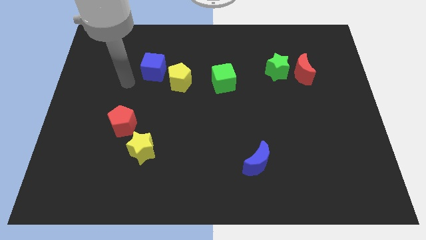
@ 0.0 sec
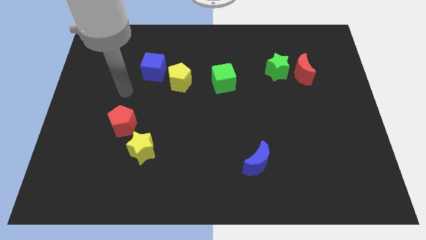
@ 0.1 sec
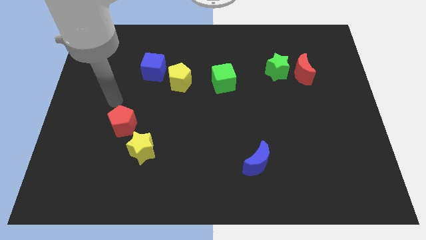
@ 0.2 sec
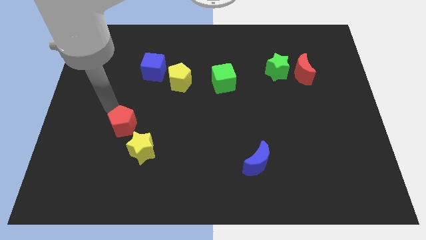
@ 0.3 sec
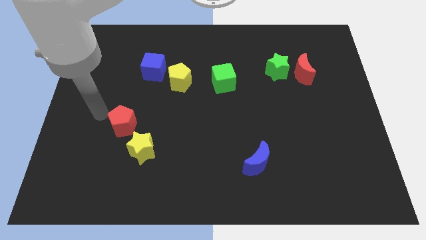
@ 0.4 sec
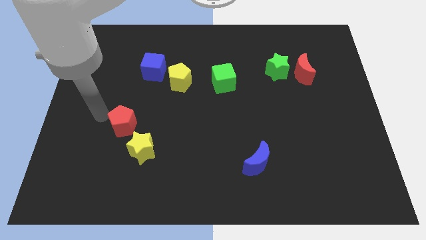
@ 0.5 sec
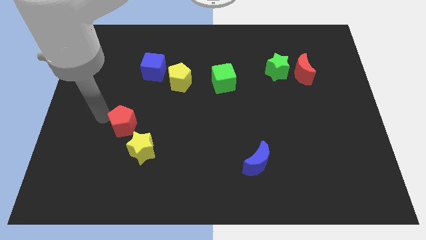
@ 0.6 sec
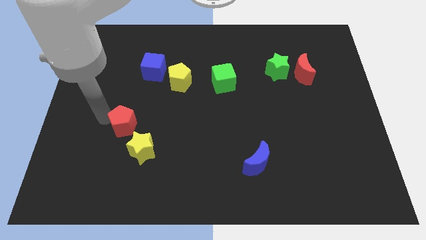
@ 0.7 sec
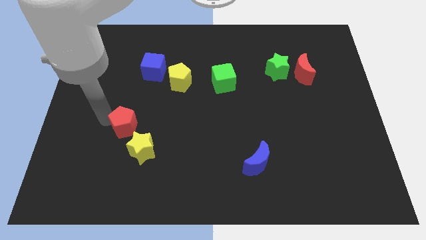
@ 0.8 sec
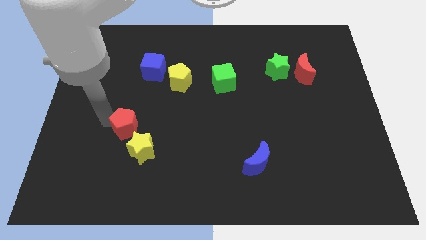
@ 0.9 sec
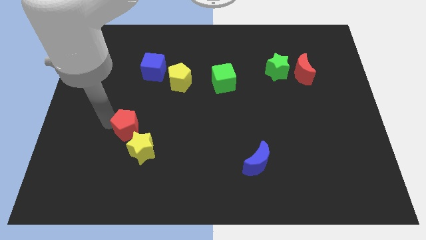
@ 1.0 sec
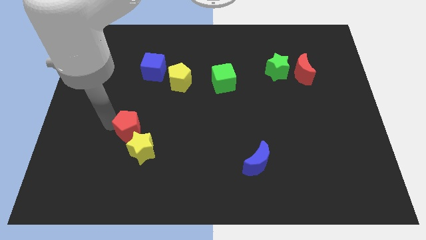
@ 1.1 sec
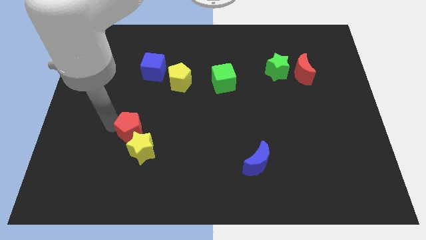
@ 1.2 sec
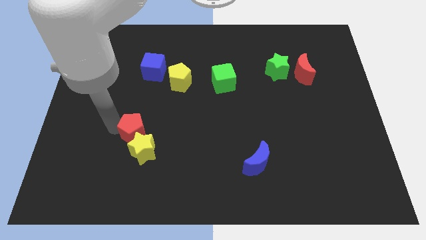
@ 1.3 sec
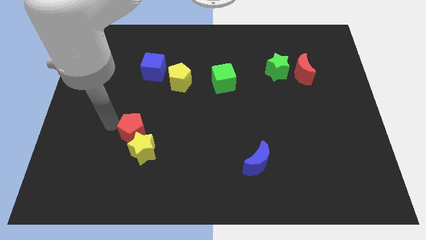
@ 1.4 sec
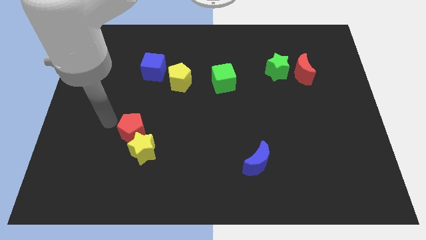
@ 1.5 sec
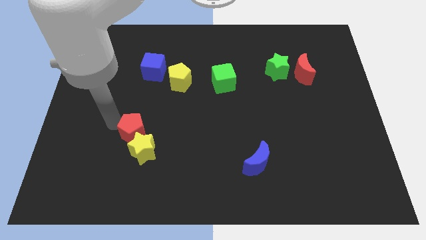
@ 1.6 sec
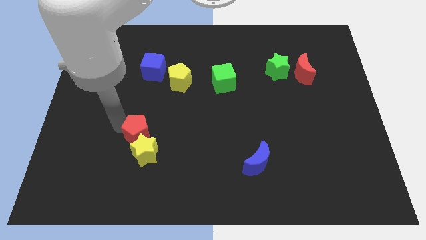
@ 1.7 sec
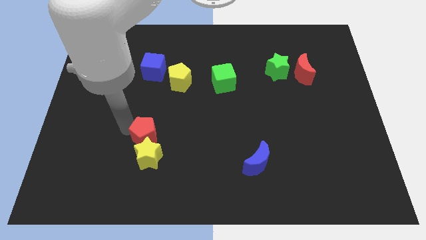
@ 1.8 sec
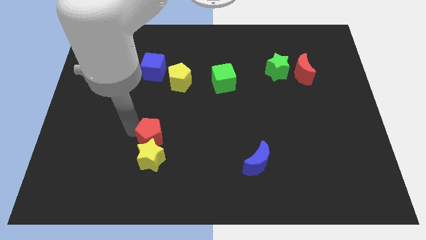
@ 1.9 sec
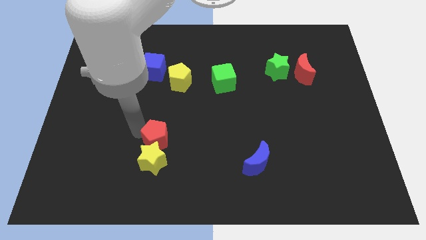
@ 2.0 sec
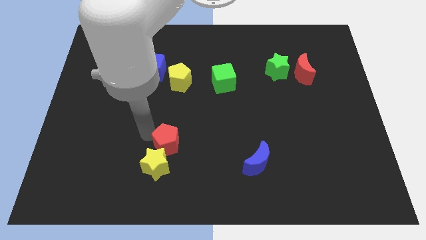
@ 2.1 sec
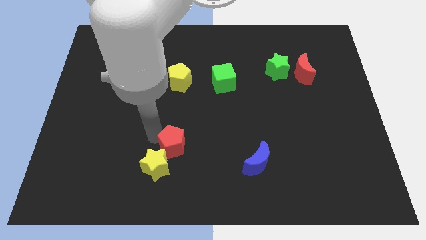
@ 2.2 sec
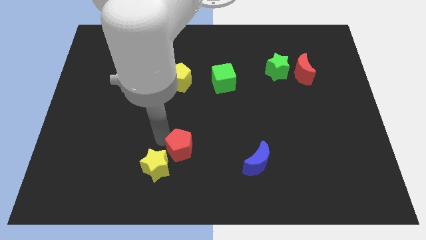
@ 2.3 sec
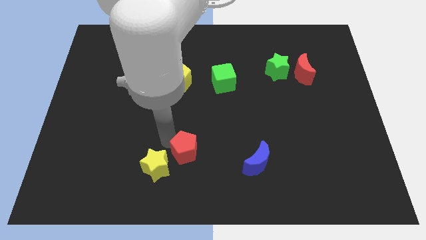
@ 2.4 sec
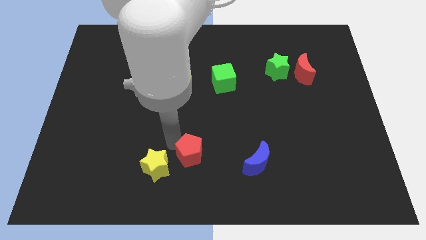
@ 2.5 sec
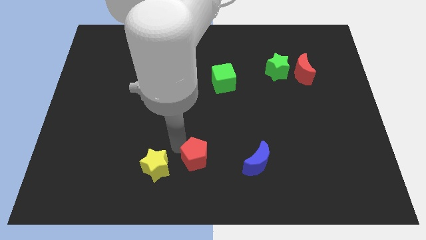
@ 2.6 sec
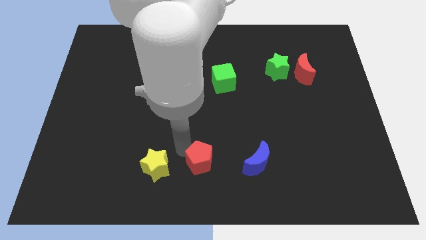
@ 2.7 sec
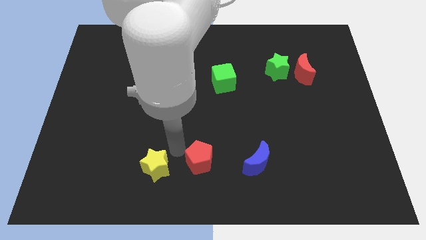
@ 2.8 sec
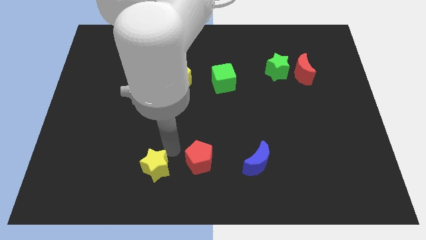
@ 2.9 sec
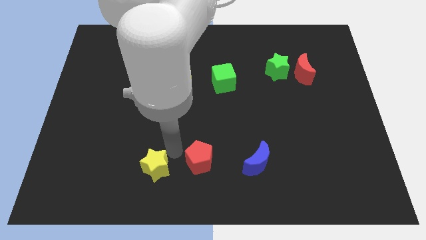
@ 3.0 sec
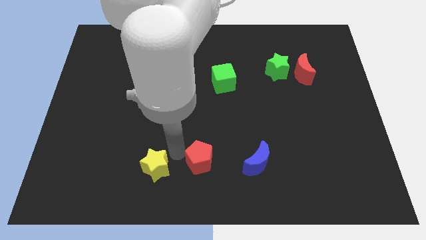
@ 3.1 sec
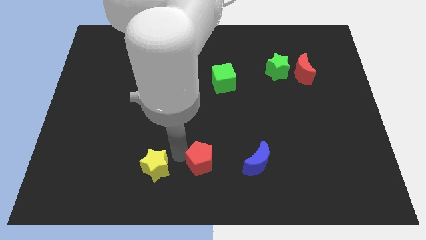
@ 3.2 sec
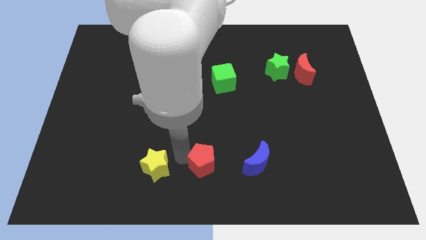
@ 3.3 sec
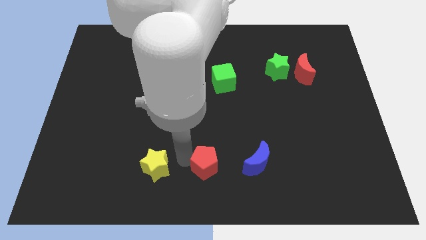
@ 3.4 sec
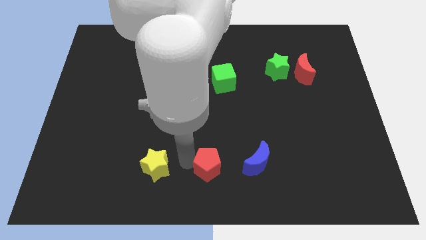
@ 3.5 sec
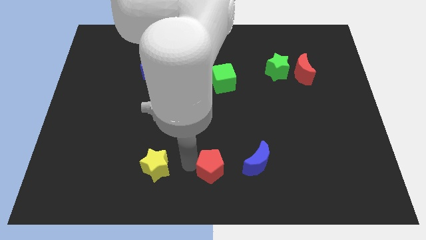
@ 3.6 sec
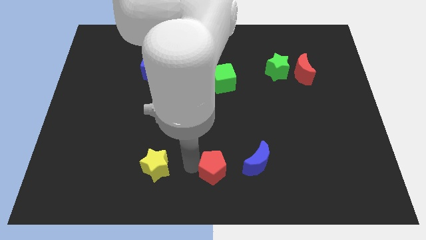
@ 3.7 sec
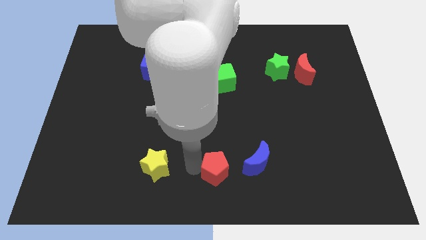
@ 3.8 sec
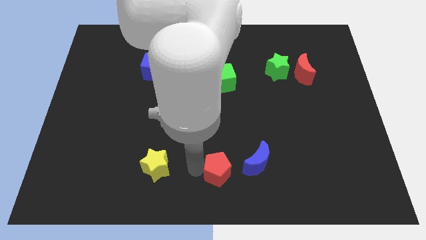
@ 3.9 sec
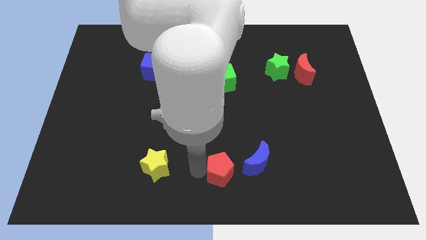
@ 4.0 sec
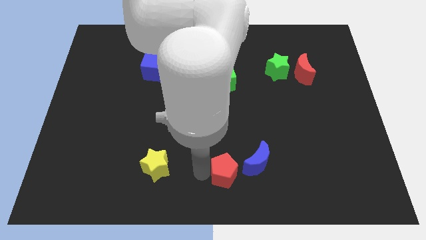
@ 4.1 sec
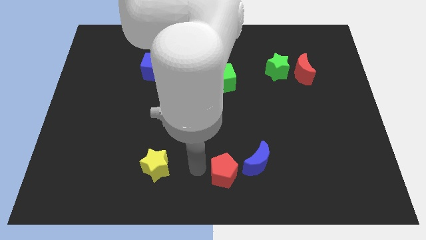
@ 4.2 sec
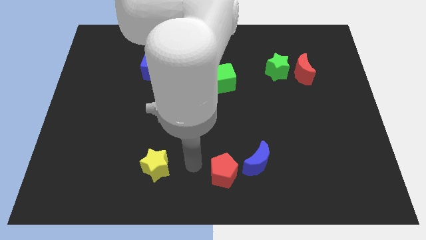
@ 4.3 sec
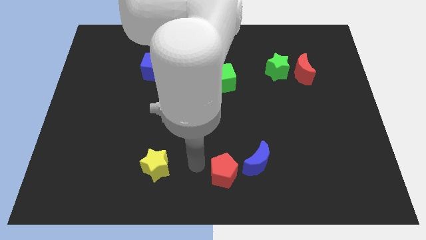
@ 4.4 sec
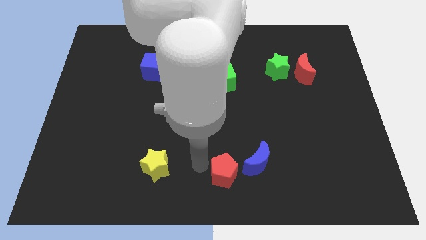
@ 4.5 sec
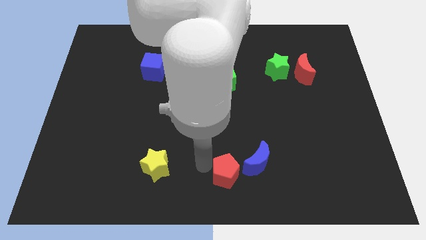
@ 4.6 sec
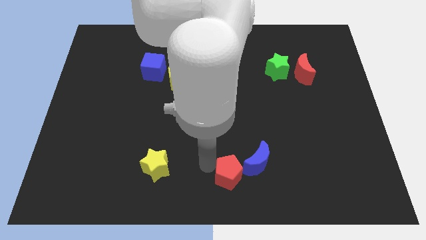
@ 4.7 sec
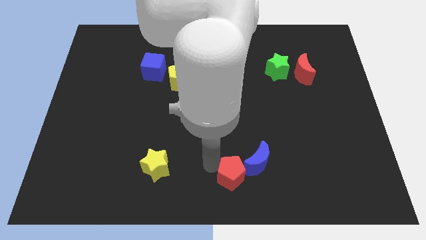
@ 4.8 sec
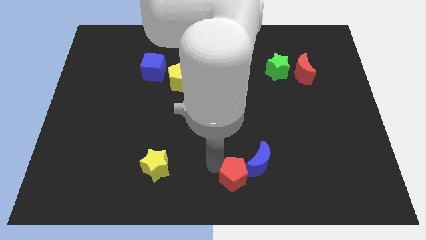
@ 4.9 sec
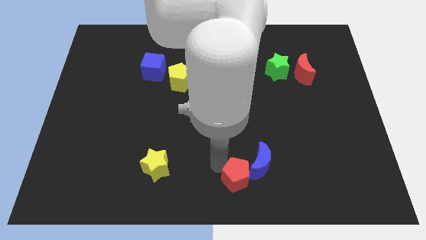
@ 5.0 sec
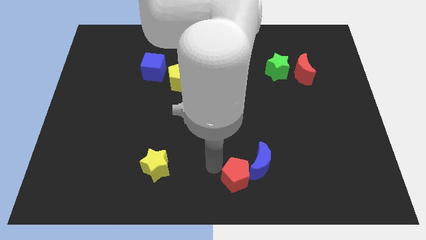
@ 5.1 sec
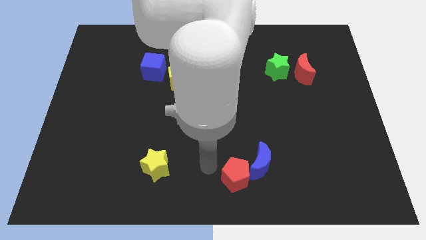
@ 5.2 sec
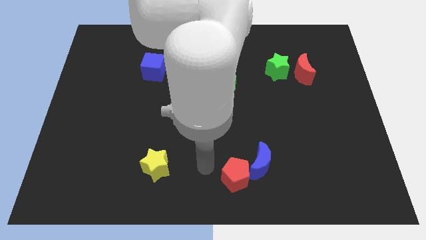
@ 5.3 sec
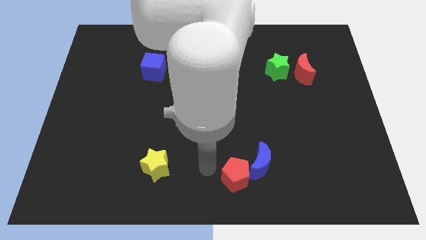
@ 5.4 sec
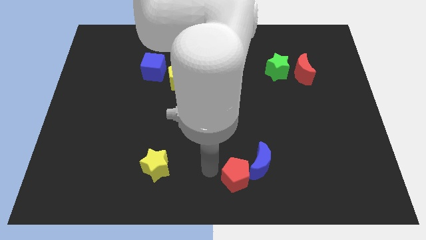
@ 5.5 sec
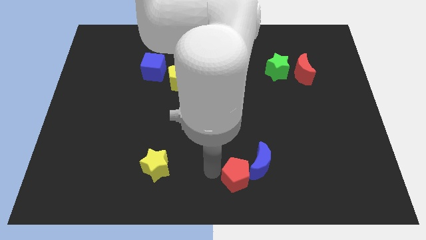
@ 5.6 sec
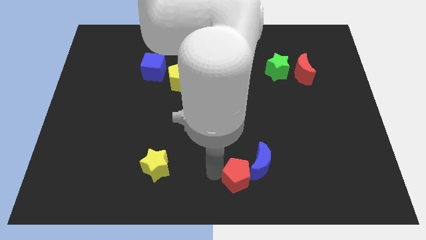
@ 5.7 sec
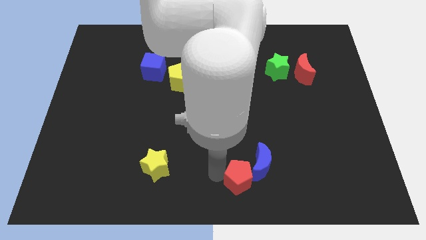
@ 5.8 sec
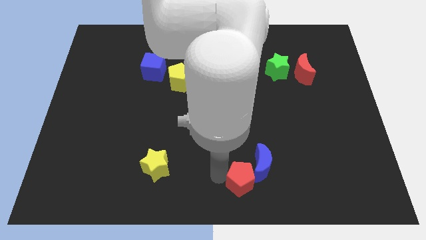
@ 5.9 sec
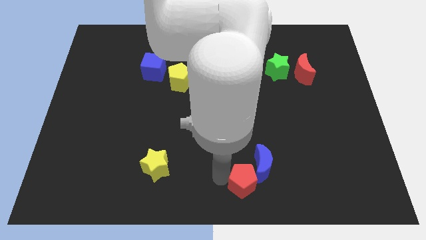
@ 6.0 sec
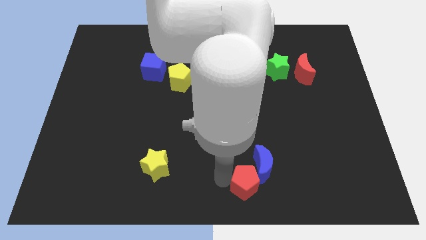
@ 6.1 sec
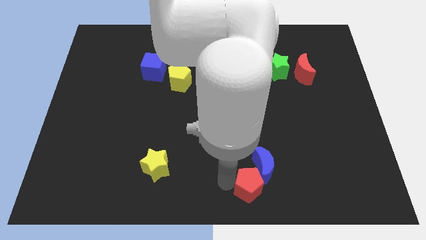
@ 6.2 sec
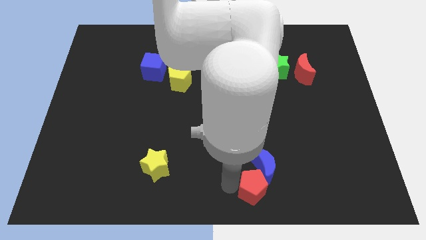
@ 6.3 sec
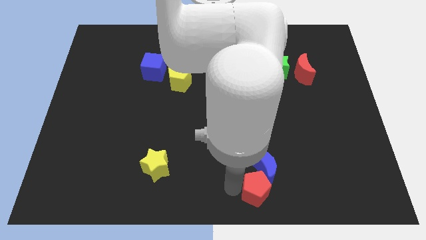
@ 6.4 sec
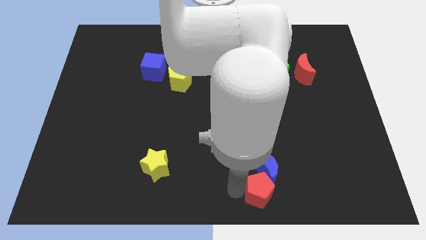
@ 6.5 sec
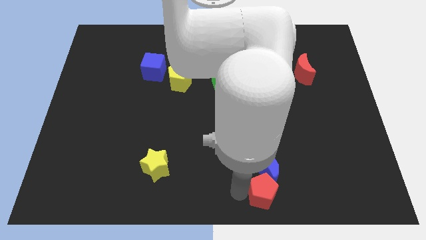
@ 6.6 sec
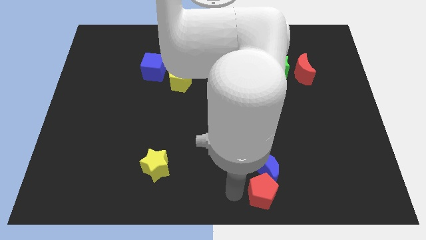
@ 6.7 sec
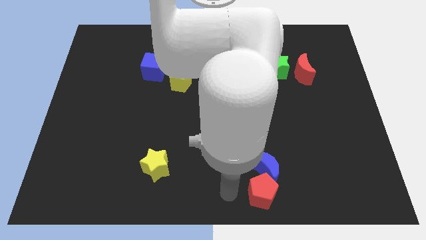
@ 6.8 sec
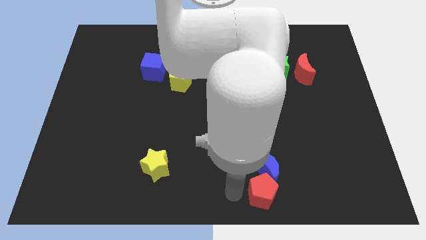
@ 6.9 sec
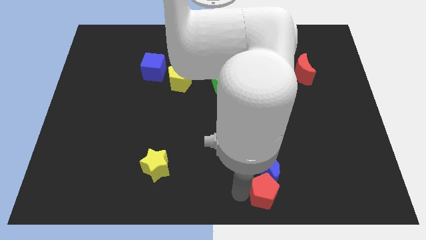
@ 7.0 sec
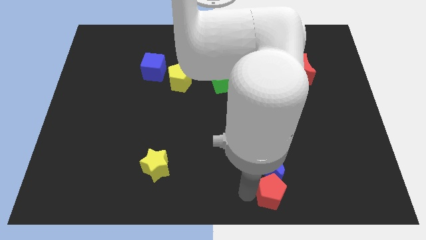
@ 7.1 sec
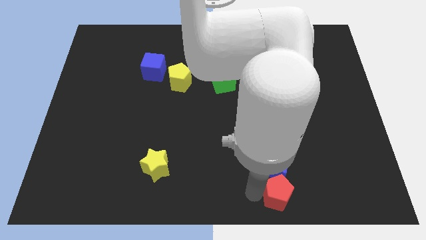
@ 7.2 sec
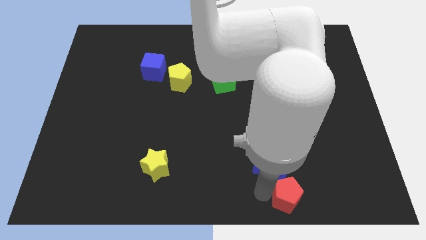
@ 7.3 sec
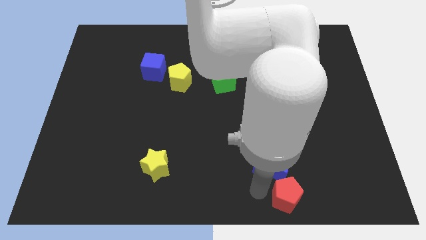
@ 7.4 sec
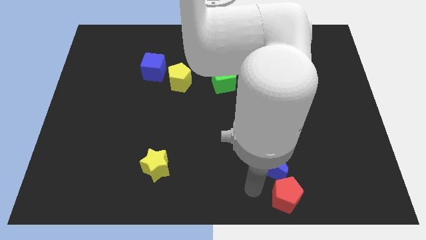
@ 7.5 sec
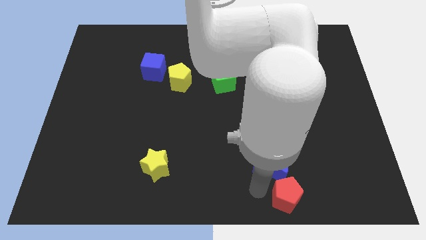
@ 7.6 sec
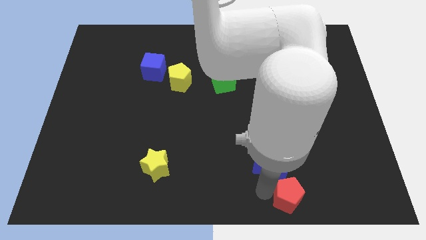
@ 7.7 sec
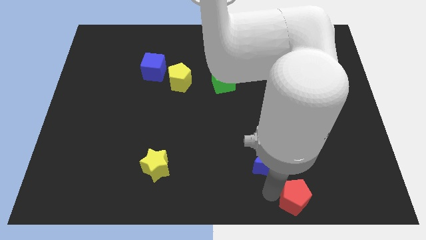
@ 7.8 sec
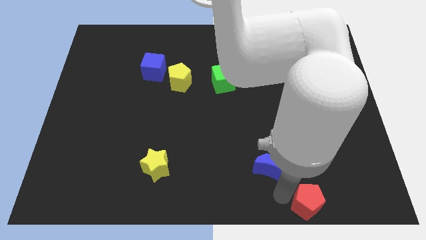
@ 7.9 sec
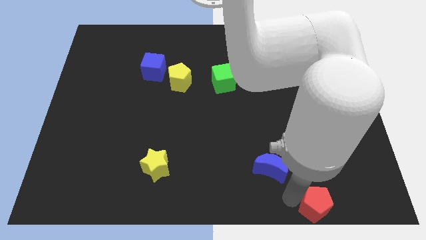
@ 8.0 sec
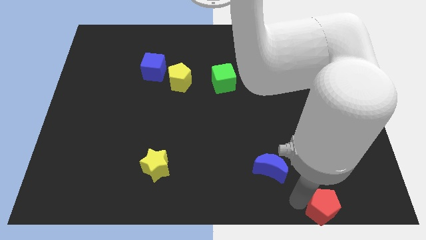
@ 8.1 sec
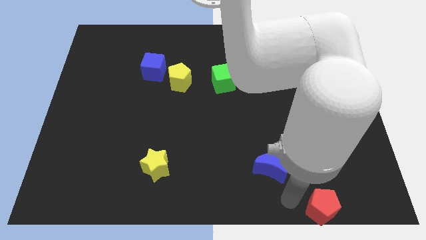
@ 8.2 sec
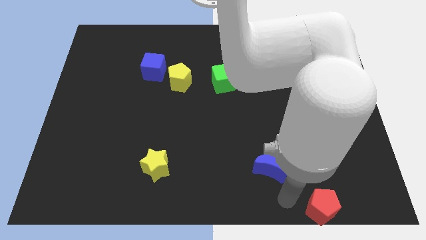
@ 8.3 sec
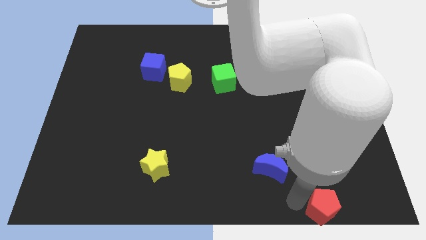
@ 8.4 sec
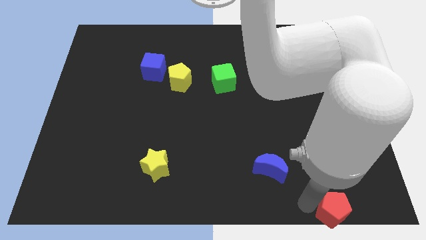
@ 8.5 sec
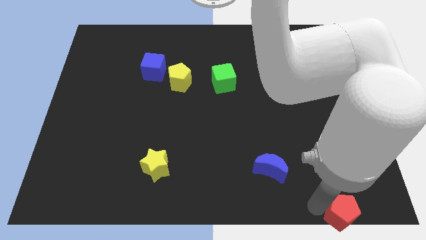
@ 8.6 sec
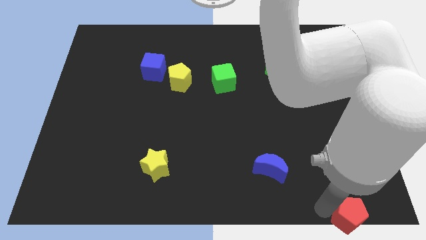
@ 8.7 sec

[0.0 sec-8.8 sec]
put the red pentagon to the lower right corner
